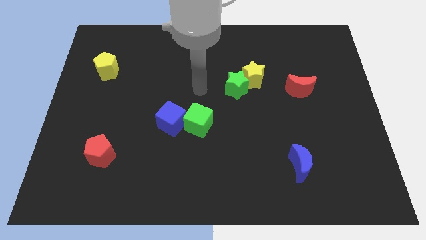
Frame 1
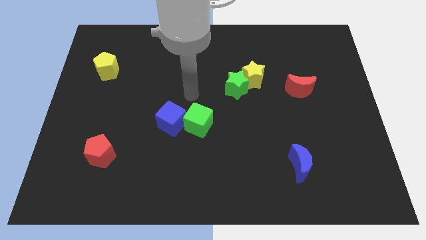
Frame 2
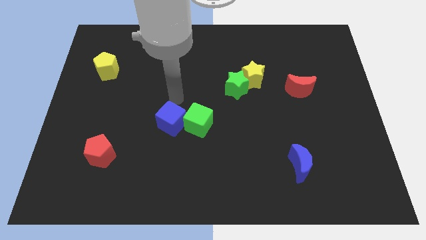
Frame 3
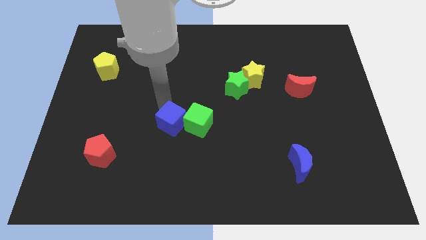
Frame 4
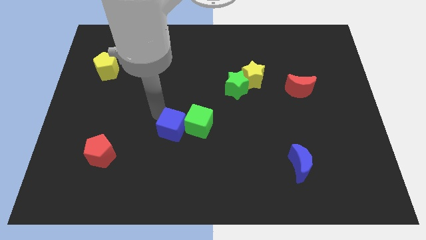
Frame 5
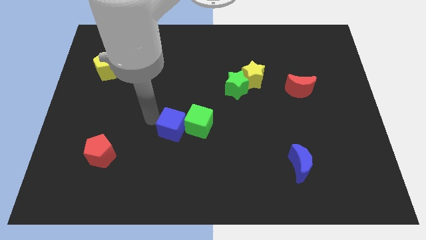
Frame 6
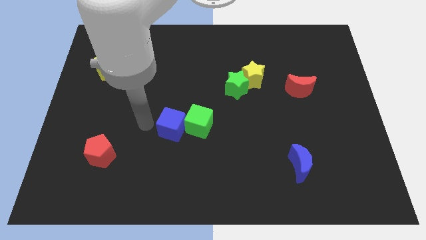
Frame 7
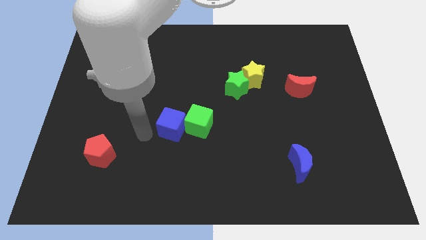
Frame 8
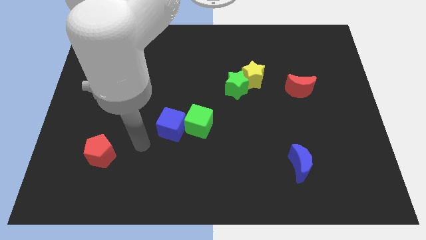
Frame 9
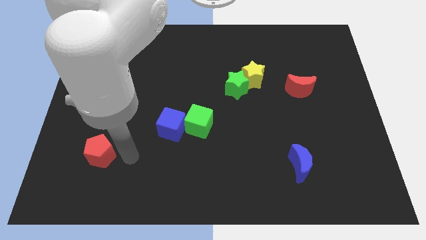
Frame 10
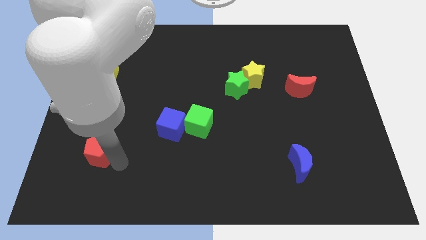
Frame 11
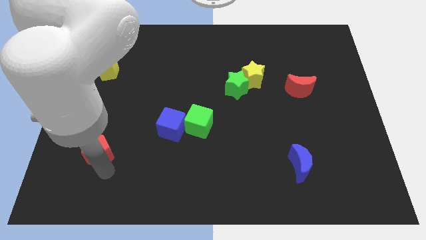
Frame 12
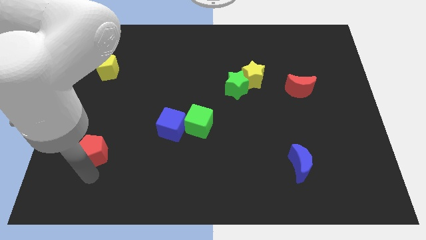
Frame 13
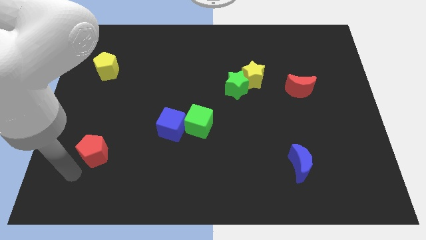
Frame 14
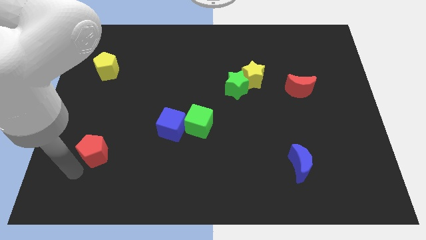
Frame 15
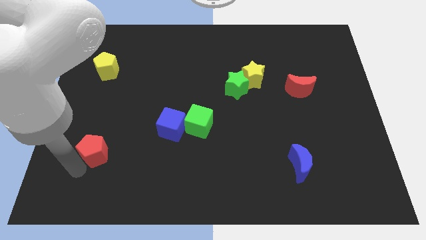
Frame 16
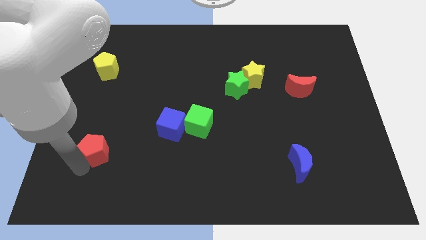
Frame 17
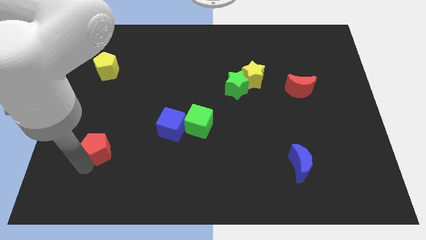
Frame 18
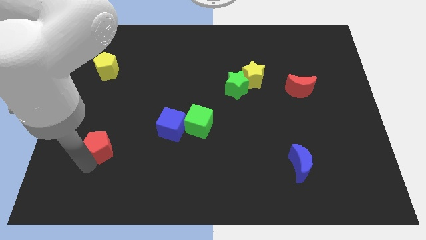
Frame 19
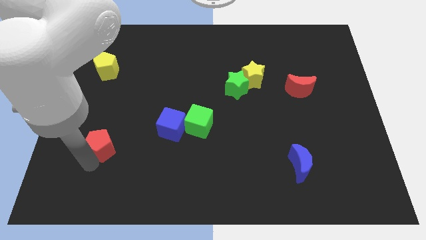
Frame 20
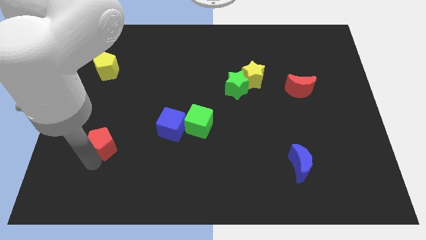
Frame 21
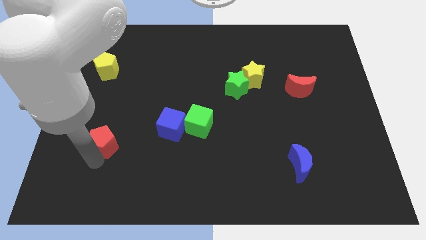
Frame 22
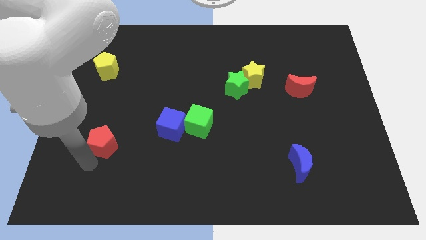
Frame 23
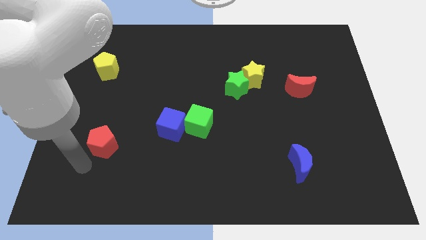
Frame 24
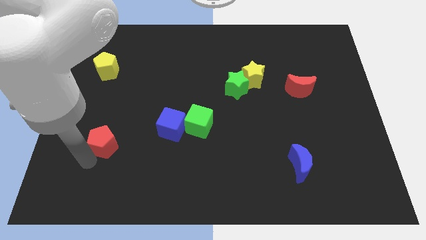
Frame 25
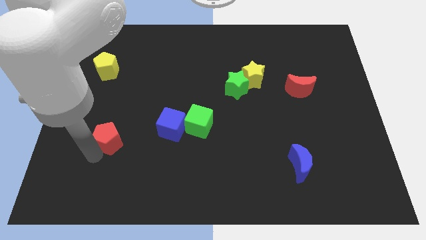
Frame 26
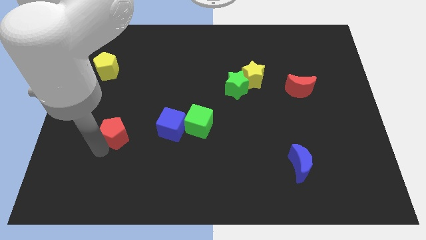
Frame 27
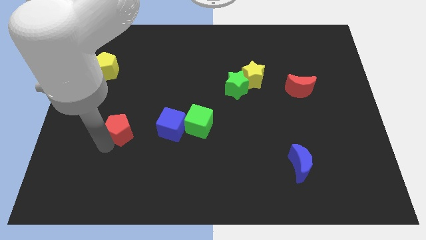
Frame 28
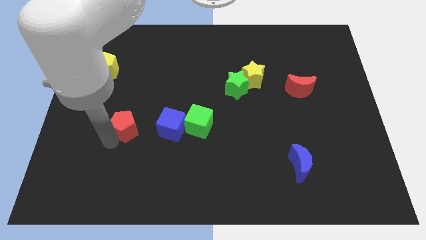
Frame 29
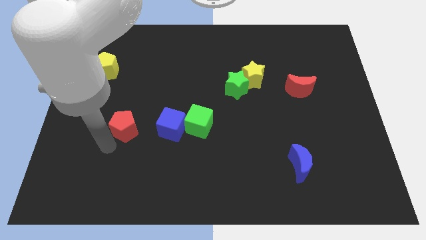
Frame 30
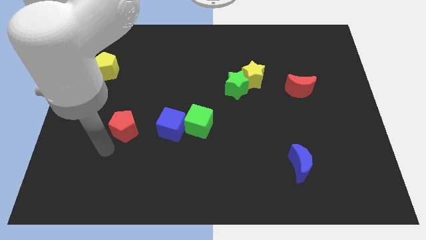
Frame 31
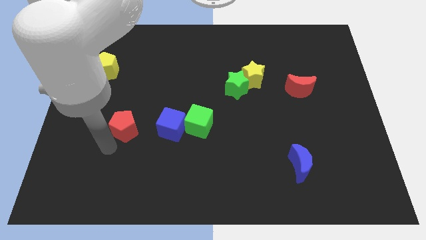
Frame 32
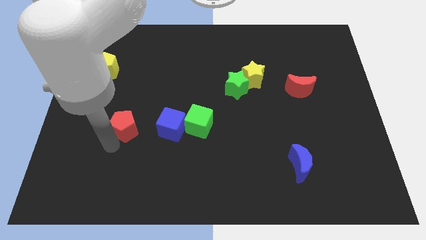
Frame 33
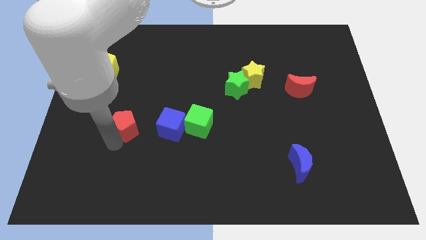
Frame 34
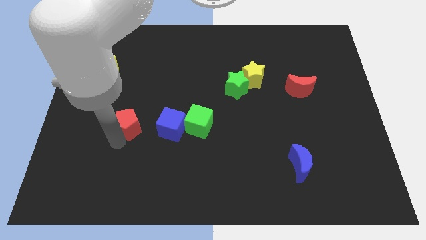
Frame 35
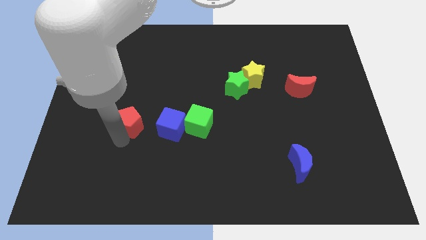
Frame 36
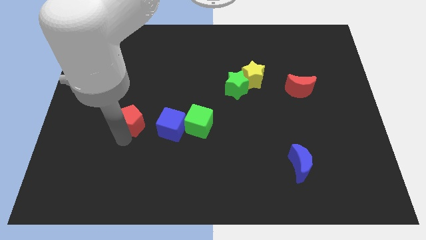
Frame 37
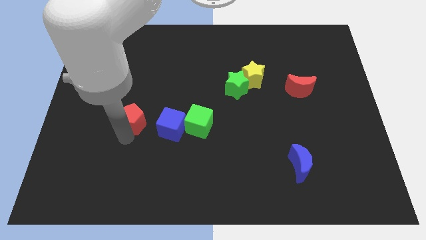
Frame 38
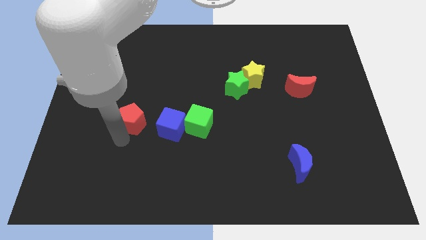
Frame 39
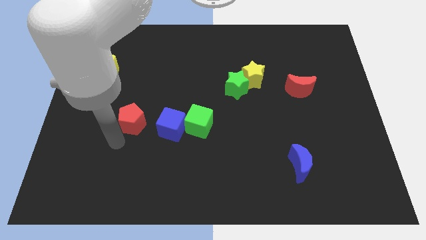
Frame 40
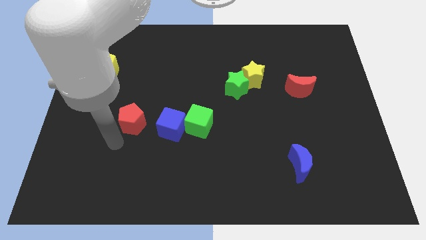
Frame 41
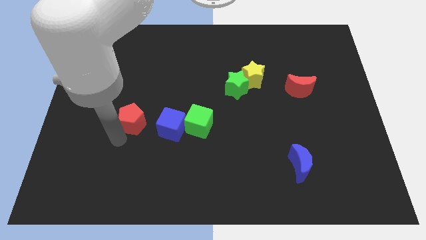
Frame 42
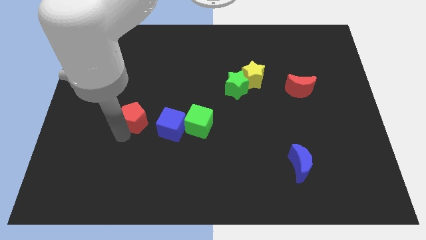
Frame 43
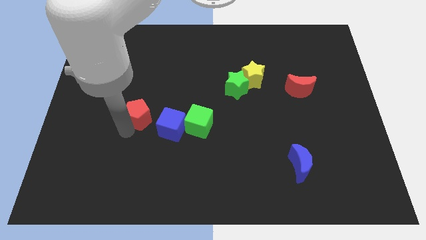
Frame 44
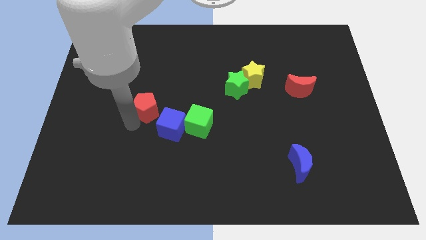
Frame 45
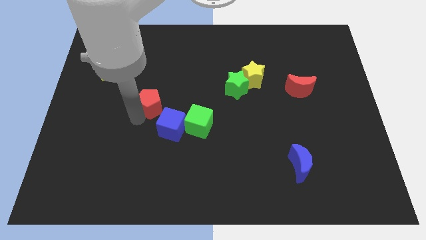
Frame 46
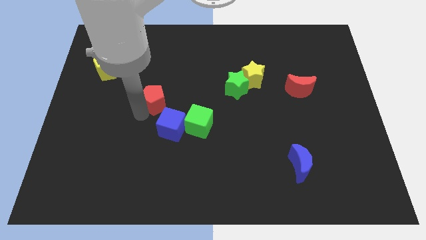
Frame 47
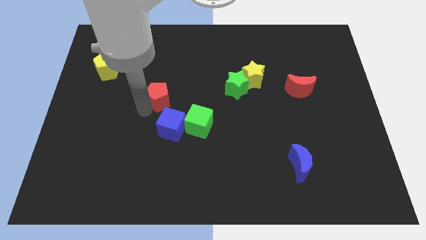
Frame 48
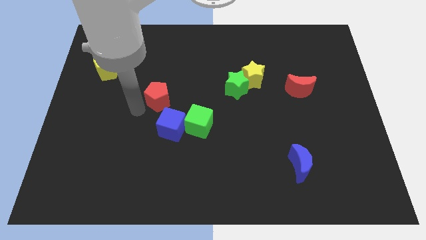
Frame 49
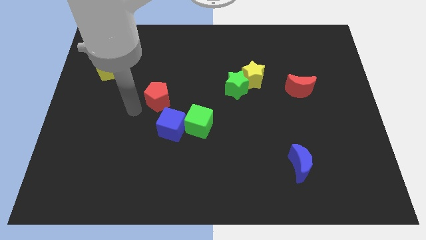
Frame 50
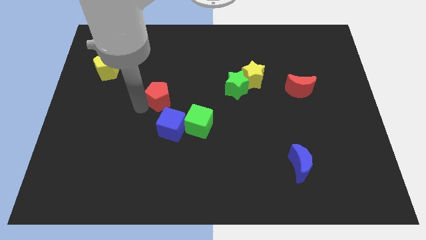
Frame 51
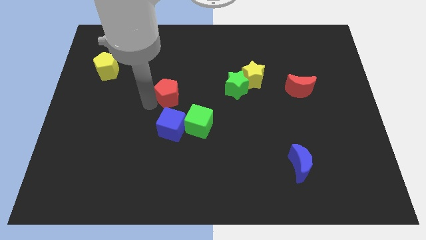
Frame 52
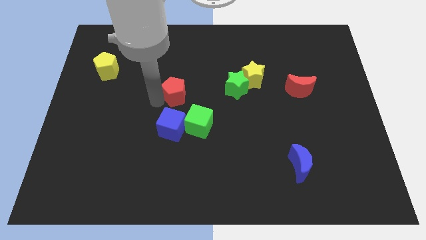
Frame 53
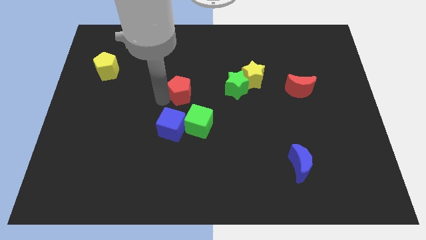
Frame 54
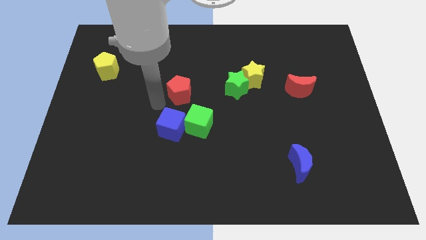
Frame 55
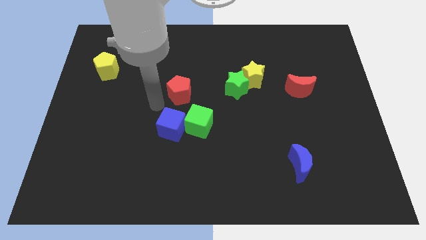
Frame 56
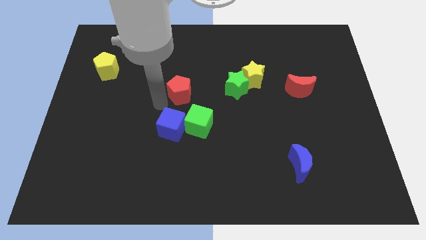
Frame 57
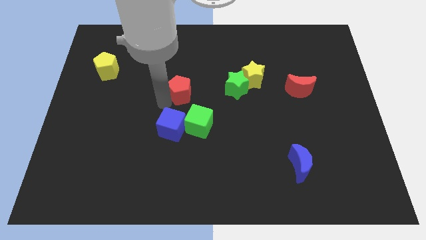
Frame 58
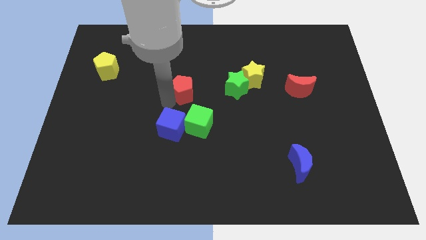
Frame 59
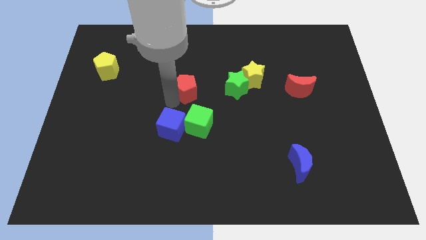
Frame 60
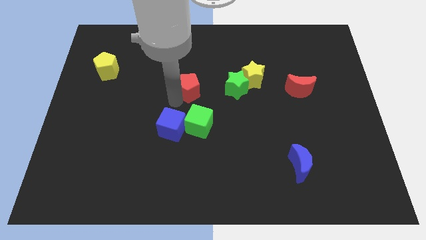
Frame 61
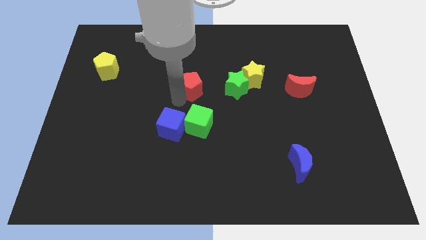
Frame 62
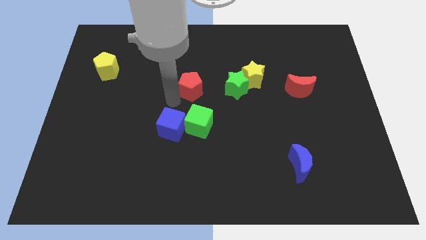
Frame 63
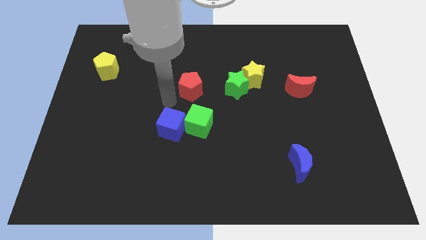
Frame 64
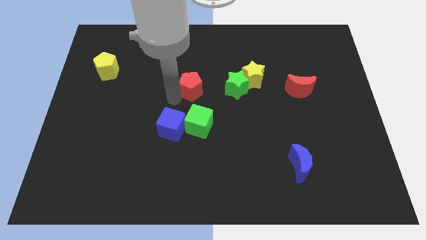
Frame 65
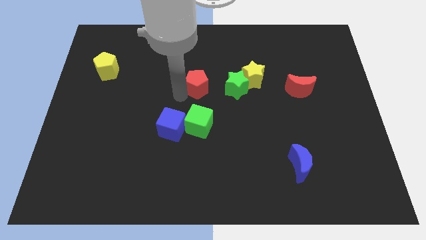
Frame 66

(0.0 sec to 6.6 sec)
put the red pentagon to the left of the yellow star

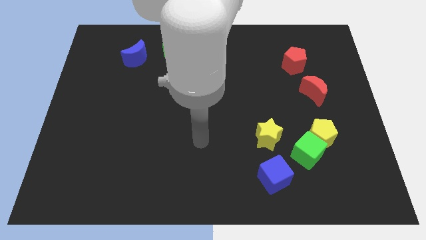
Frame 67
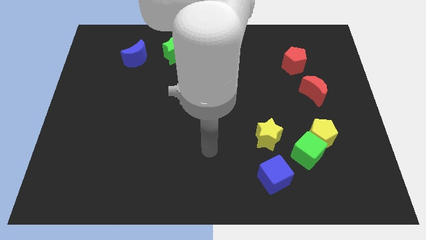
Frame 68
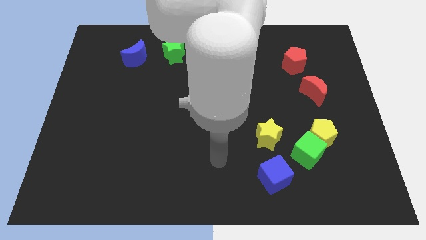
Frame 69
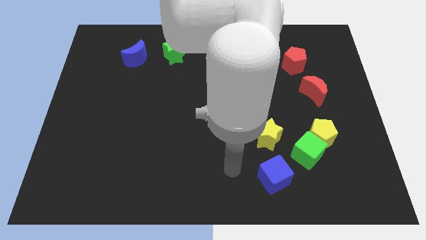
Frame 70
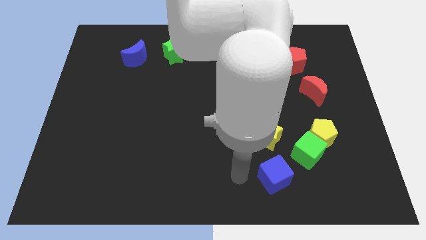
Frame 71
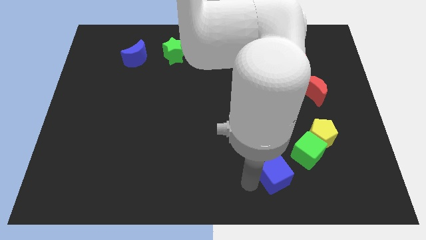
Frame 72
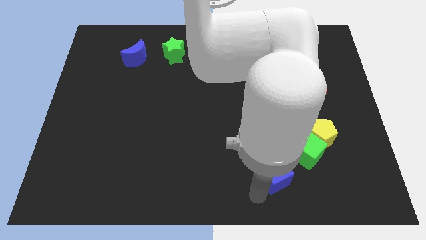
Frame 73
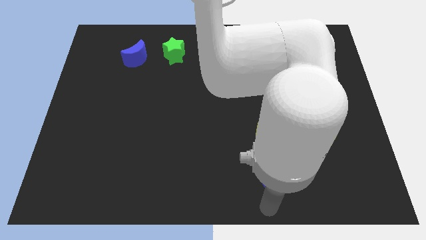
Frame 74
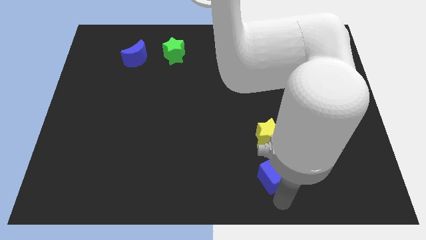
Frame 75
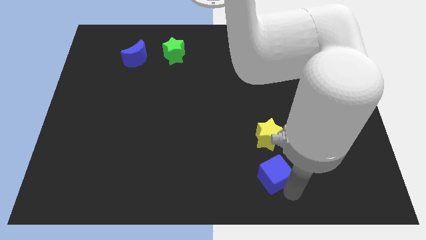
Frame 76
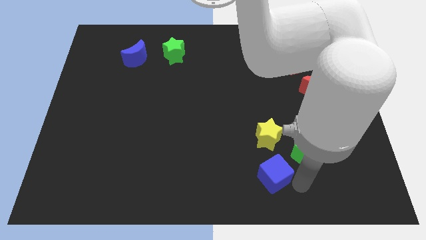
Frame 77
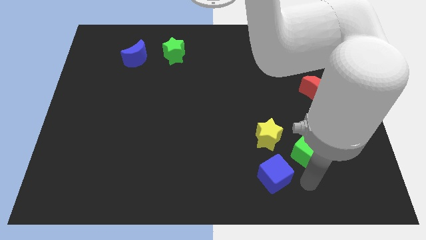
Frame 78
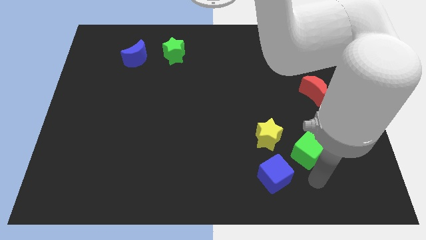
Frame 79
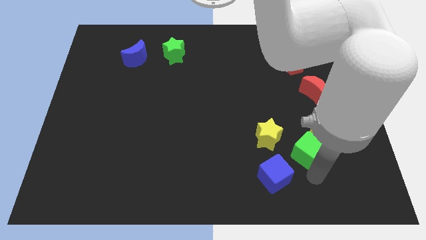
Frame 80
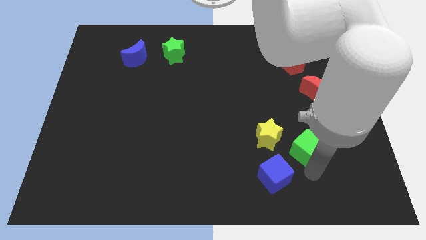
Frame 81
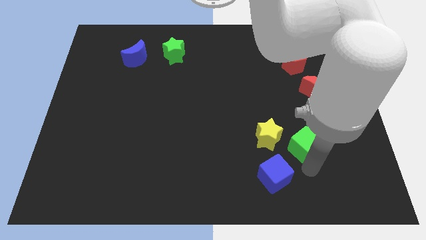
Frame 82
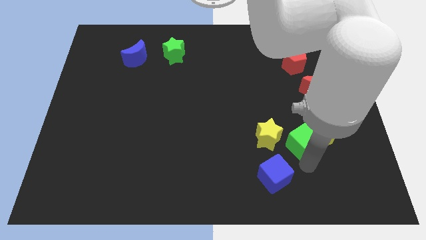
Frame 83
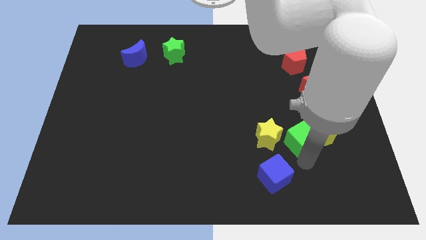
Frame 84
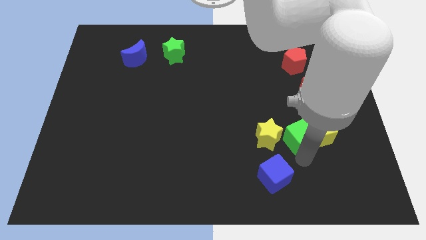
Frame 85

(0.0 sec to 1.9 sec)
slide the green cube to the top left side of the yellow pentagon
